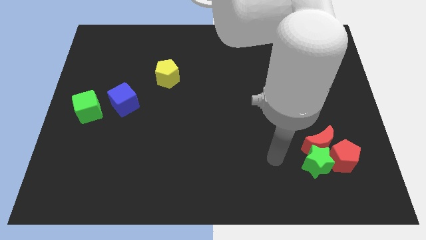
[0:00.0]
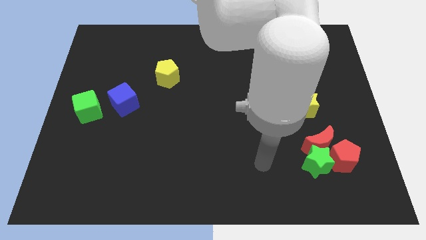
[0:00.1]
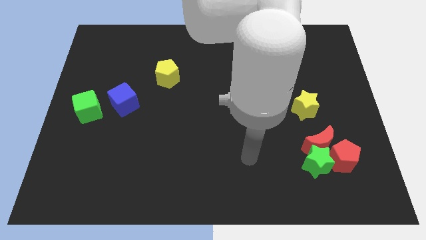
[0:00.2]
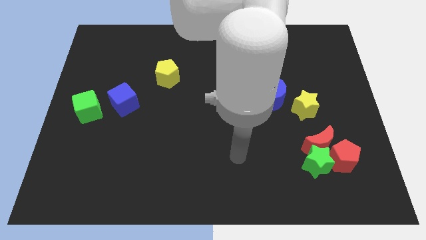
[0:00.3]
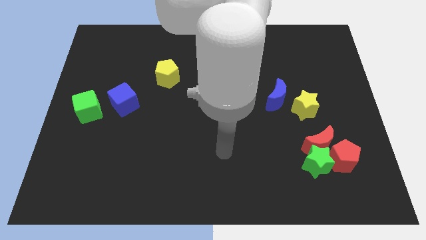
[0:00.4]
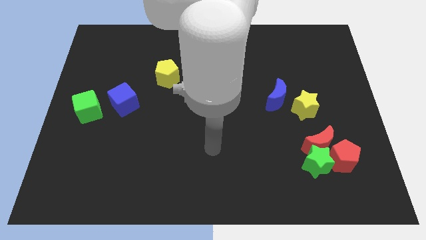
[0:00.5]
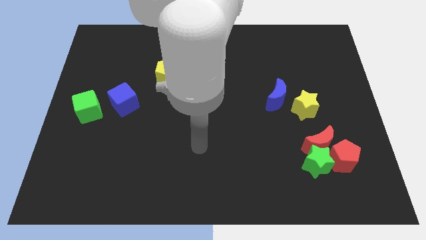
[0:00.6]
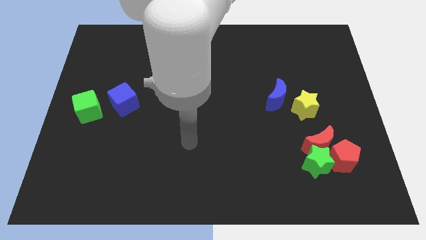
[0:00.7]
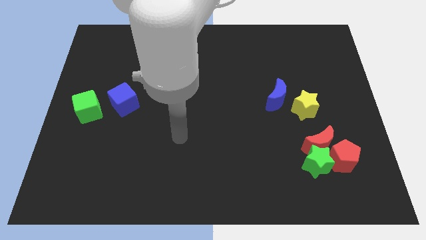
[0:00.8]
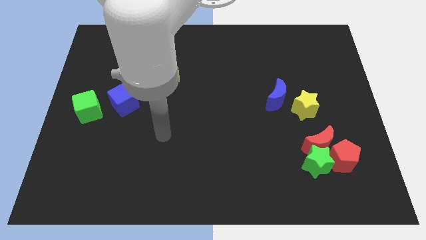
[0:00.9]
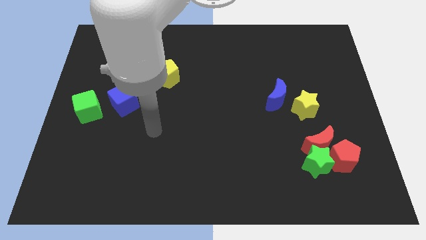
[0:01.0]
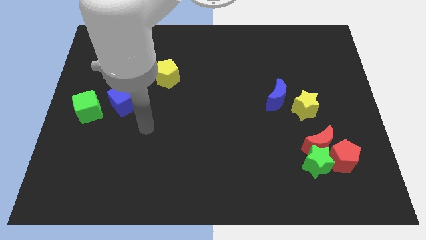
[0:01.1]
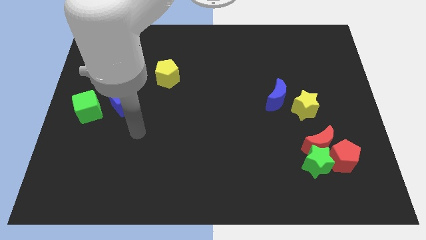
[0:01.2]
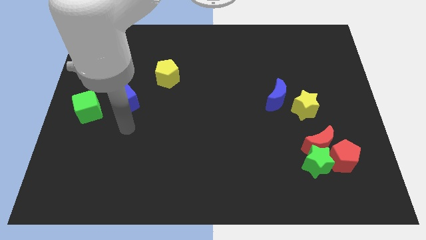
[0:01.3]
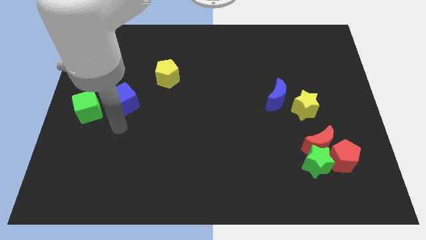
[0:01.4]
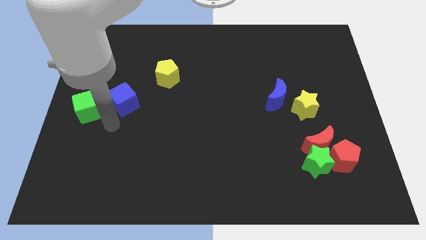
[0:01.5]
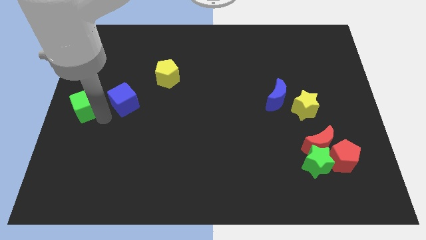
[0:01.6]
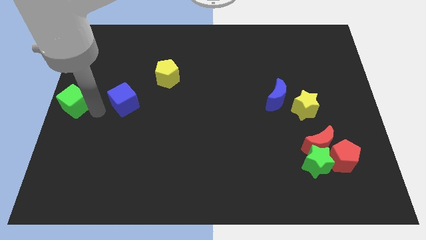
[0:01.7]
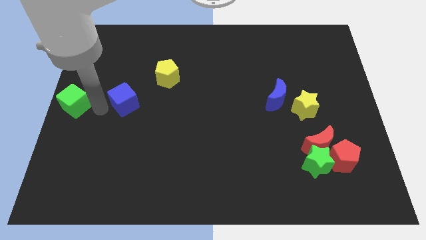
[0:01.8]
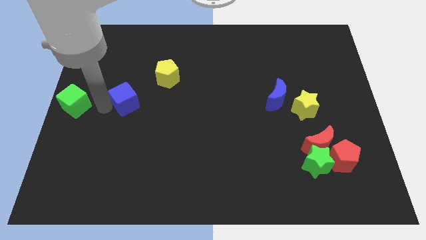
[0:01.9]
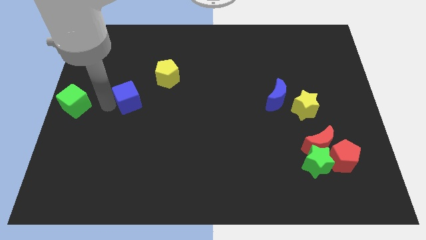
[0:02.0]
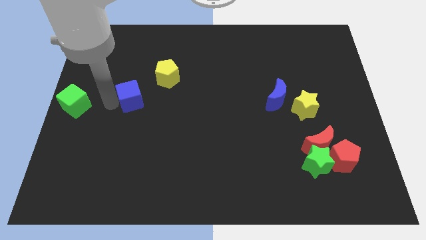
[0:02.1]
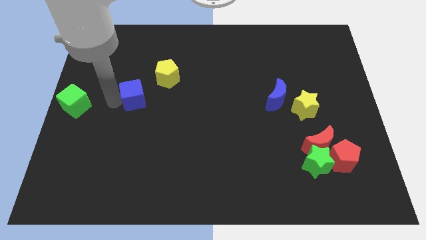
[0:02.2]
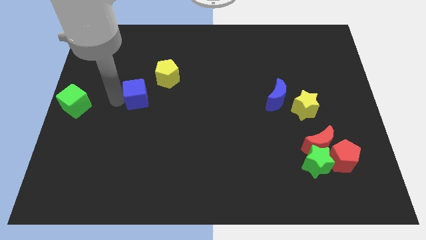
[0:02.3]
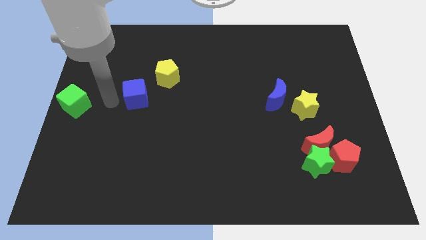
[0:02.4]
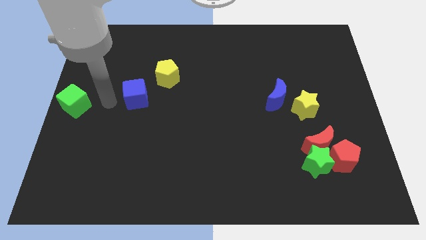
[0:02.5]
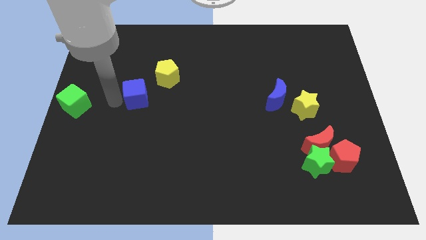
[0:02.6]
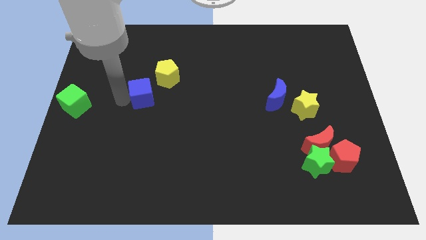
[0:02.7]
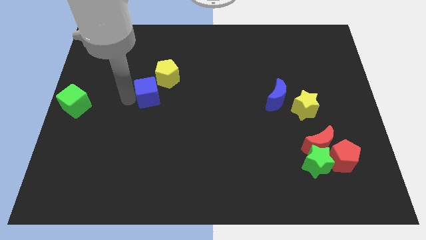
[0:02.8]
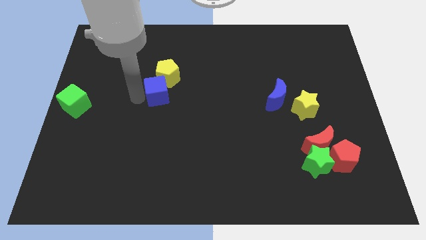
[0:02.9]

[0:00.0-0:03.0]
move the blue cube diagonally up and right a little

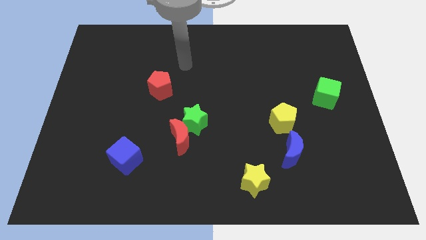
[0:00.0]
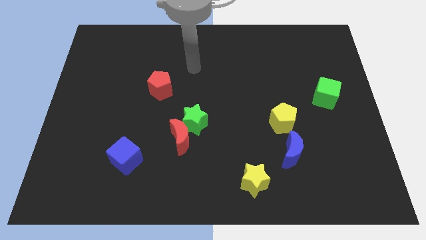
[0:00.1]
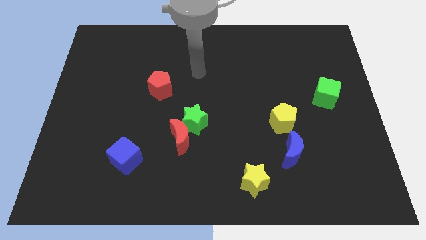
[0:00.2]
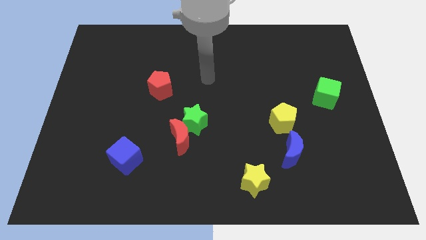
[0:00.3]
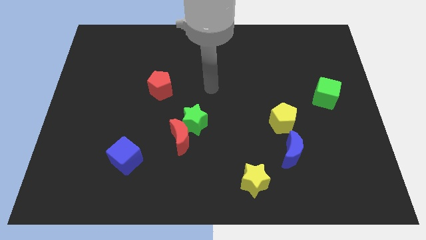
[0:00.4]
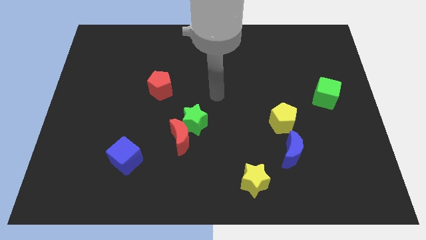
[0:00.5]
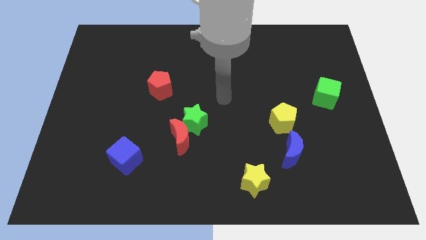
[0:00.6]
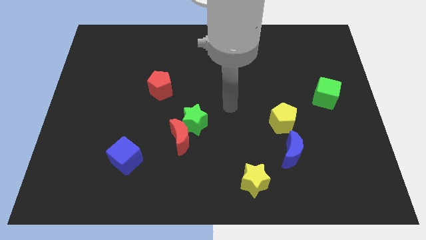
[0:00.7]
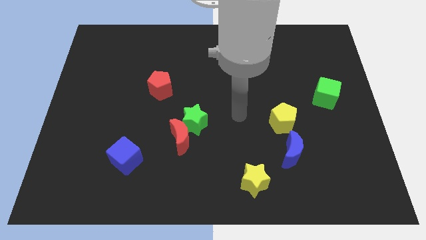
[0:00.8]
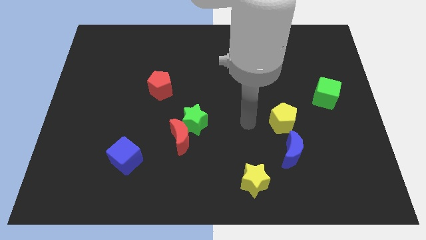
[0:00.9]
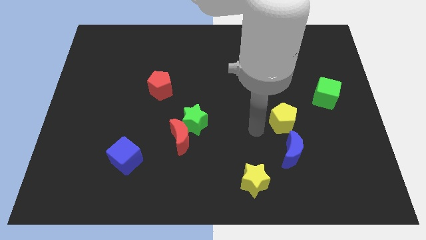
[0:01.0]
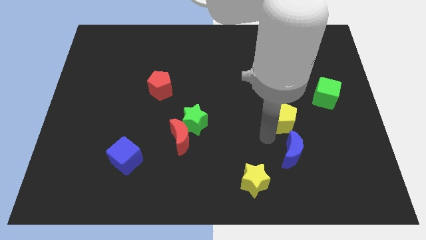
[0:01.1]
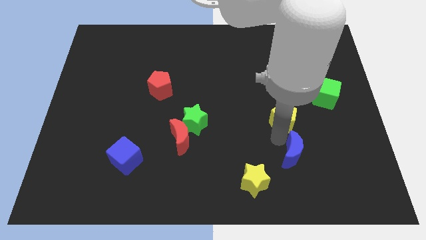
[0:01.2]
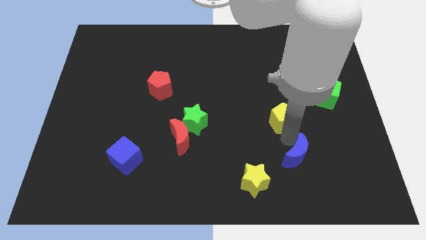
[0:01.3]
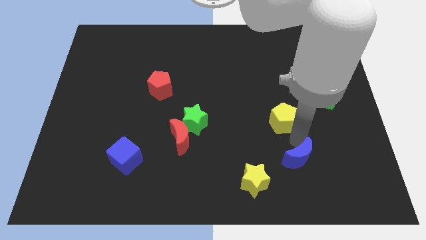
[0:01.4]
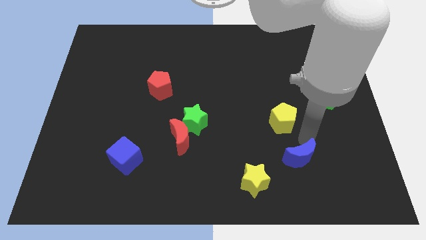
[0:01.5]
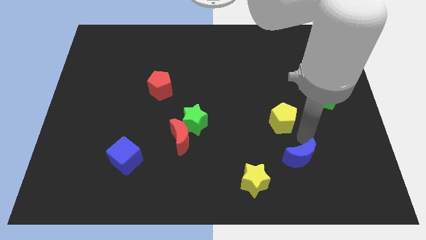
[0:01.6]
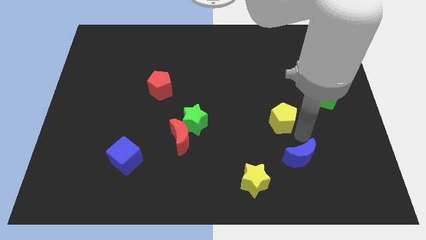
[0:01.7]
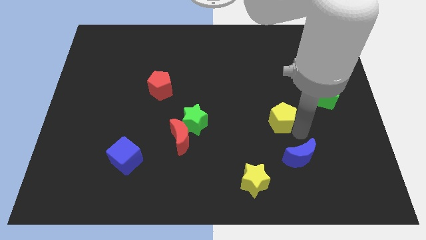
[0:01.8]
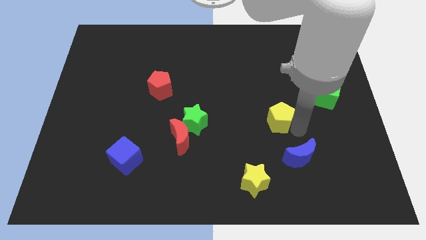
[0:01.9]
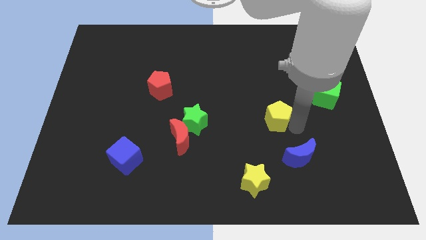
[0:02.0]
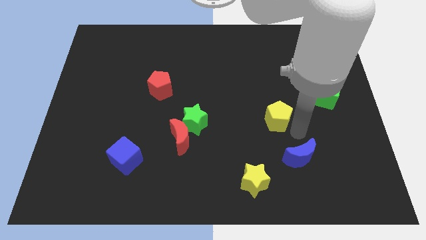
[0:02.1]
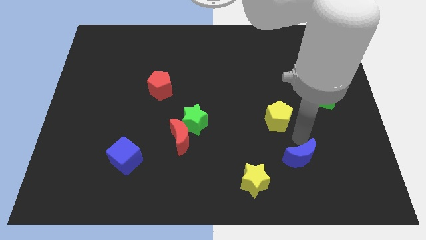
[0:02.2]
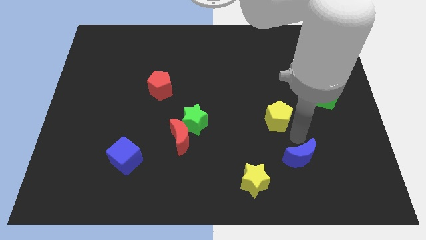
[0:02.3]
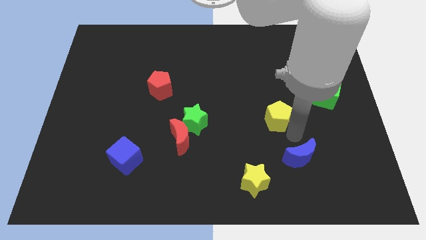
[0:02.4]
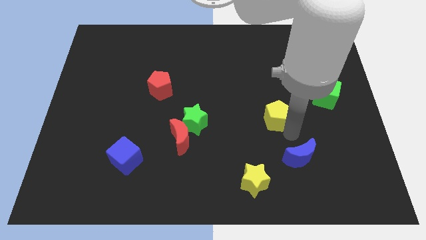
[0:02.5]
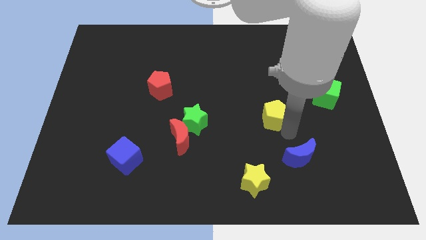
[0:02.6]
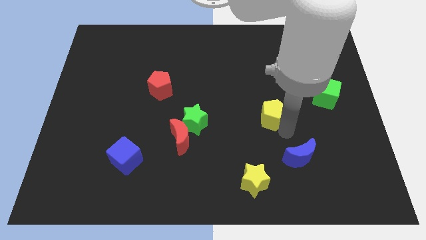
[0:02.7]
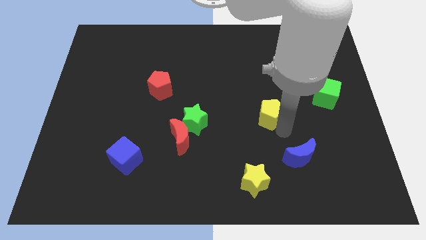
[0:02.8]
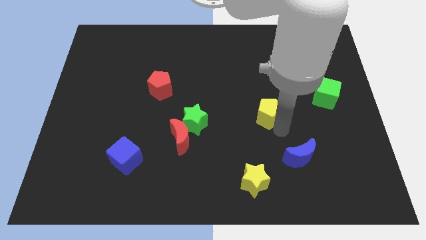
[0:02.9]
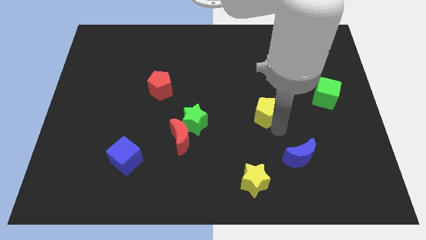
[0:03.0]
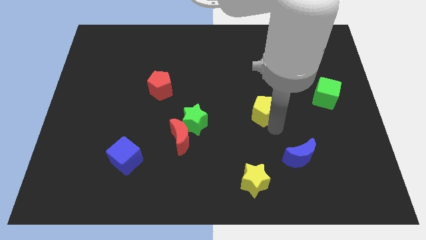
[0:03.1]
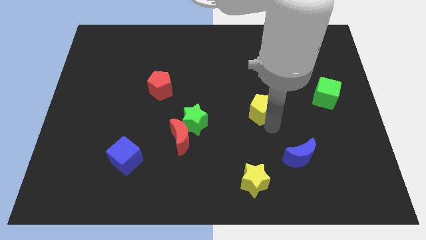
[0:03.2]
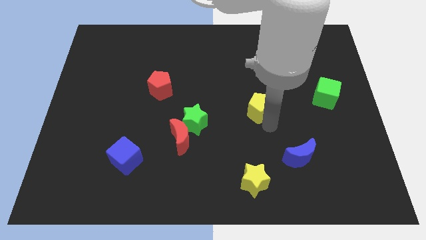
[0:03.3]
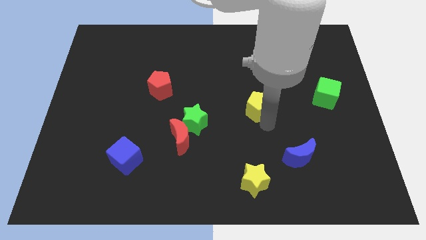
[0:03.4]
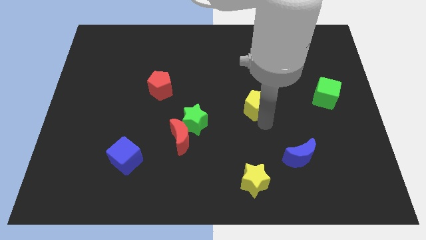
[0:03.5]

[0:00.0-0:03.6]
push the yellow pentagon upwards and to the left diagonally a bit

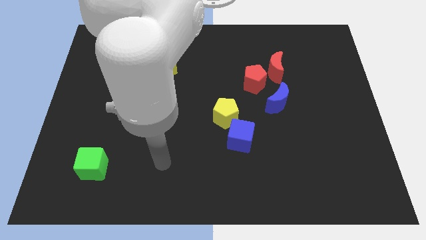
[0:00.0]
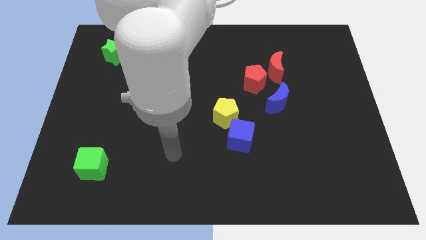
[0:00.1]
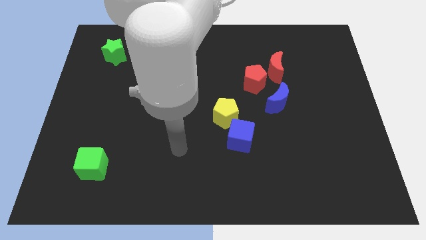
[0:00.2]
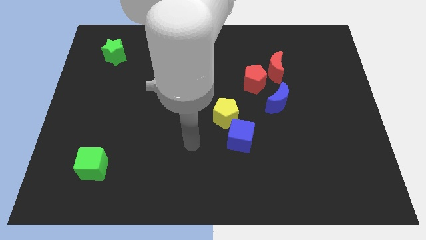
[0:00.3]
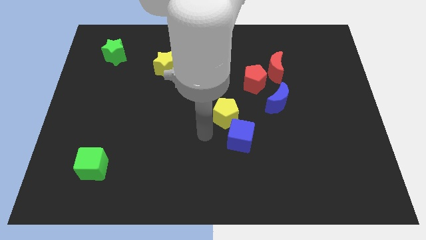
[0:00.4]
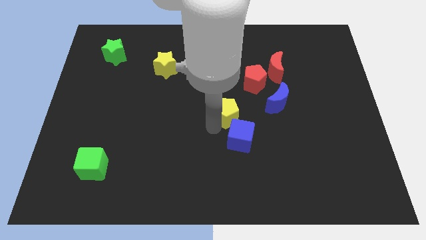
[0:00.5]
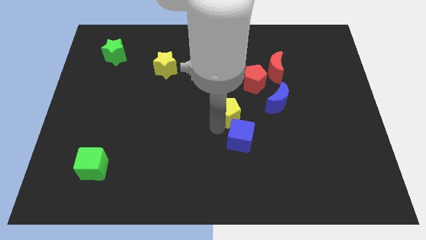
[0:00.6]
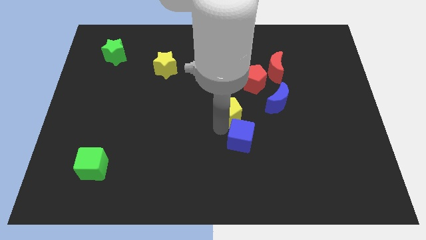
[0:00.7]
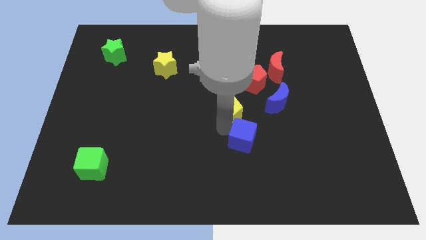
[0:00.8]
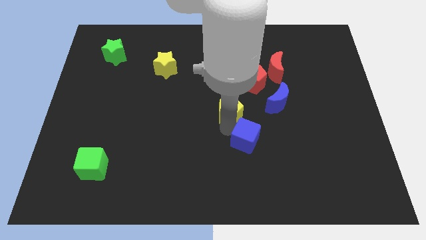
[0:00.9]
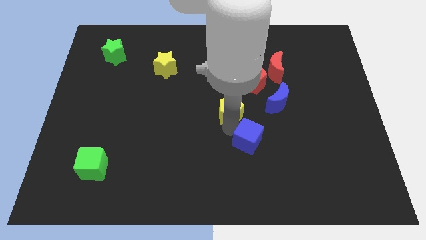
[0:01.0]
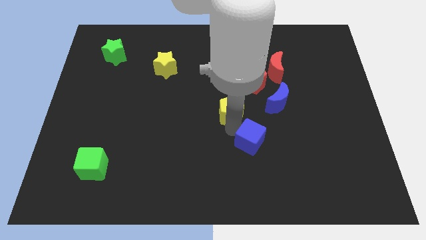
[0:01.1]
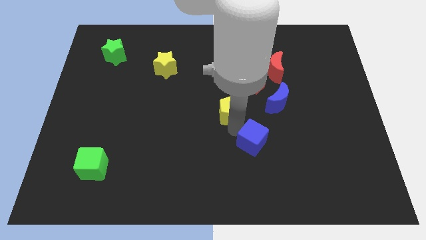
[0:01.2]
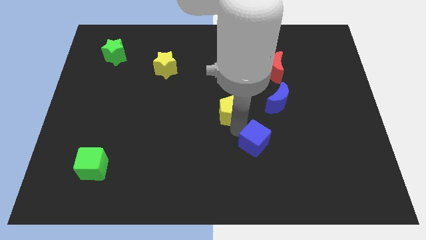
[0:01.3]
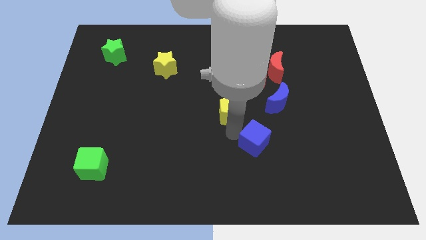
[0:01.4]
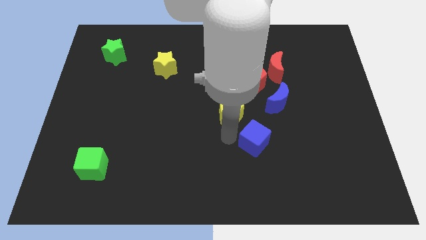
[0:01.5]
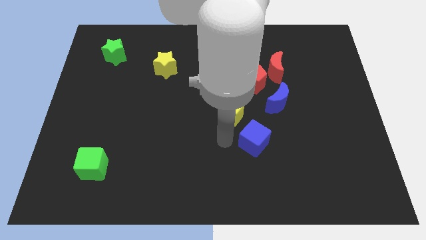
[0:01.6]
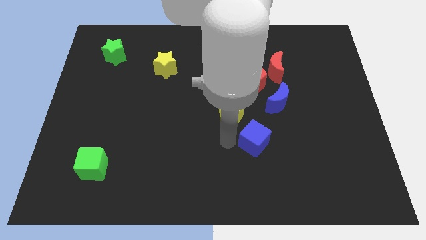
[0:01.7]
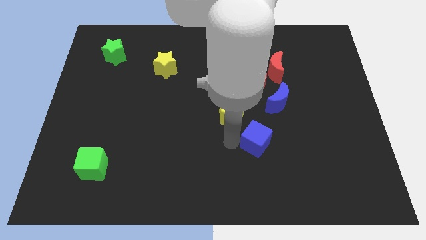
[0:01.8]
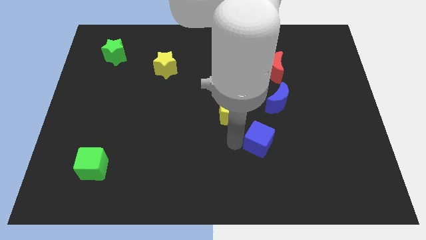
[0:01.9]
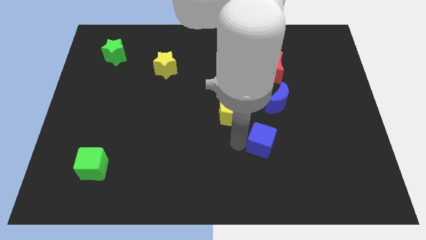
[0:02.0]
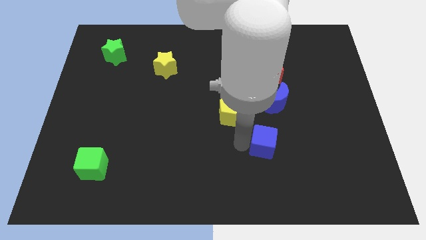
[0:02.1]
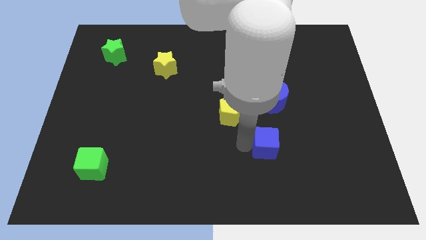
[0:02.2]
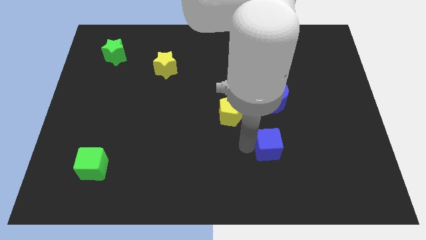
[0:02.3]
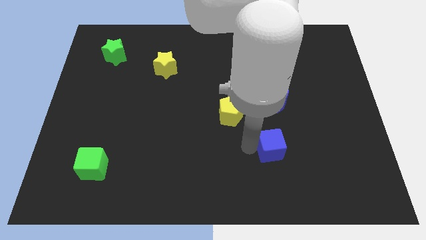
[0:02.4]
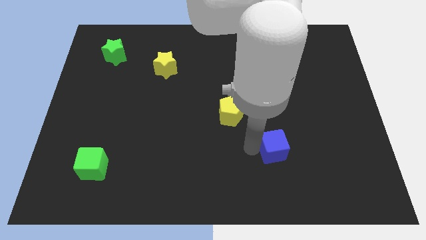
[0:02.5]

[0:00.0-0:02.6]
slightly move the blue cube right
